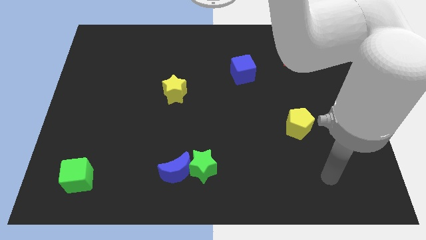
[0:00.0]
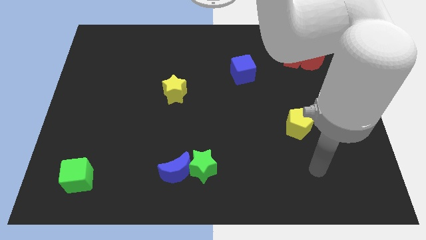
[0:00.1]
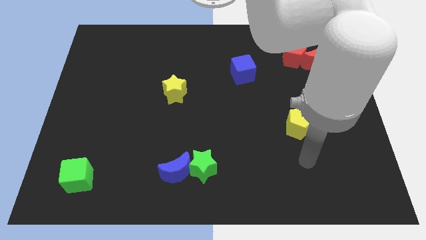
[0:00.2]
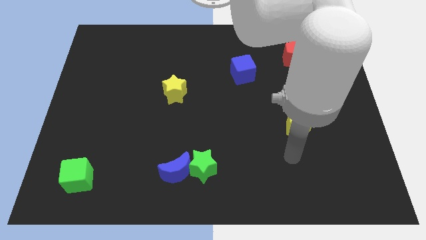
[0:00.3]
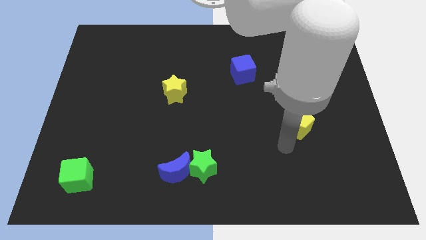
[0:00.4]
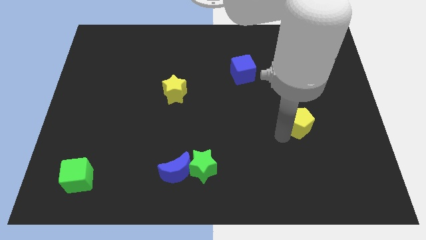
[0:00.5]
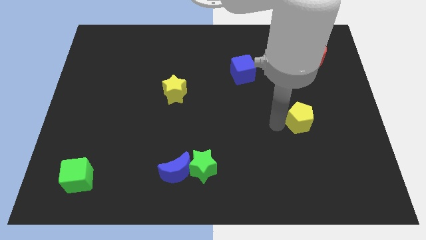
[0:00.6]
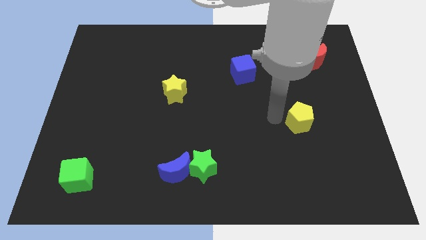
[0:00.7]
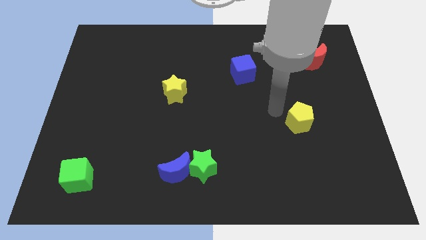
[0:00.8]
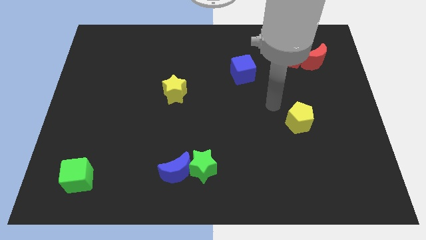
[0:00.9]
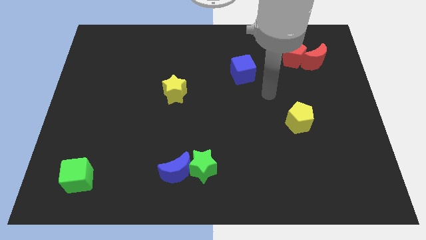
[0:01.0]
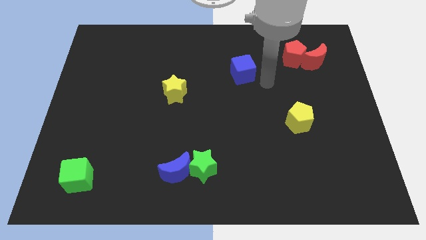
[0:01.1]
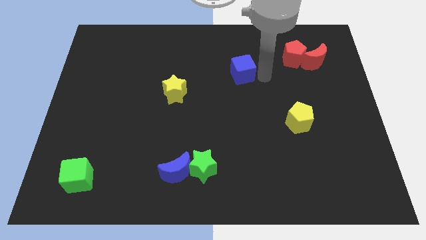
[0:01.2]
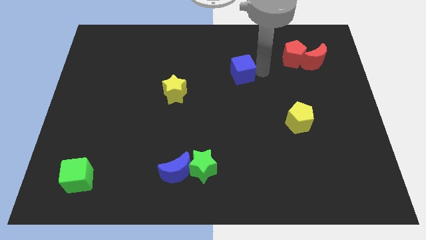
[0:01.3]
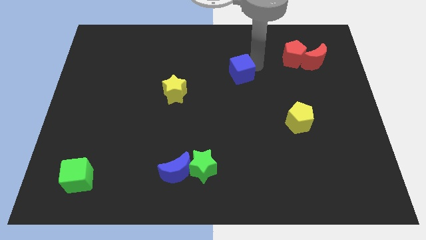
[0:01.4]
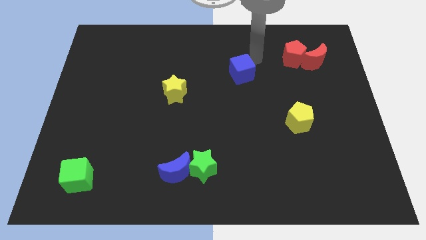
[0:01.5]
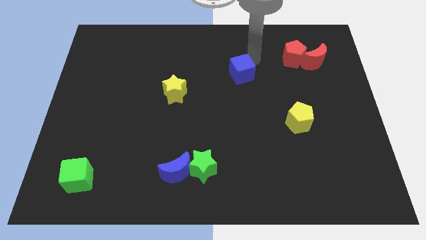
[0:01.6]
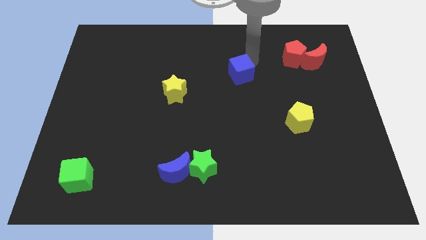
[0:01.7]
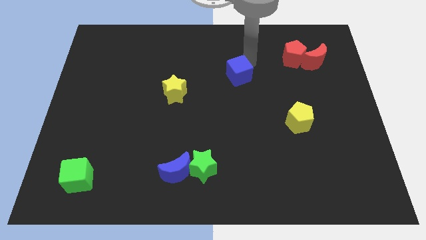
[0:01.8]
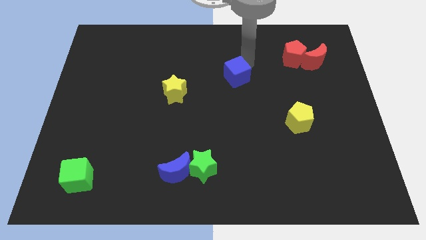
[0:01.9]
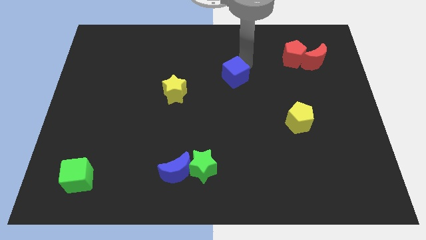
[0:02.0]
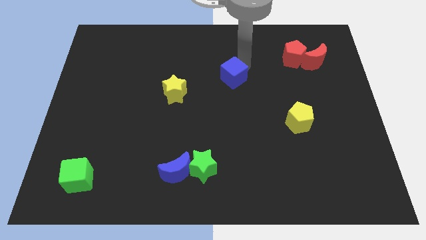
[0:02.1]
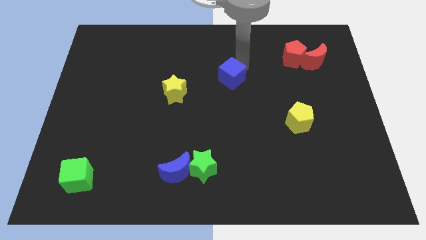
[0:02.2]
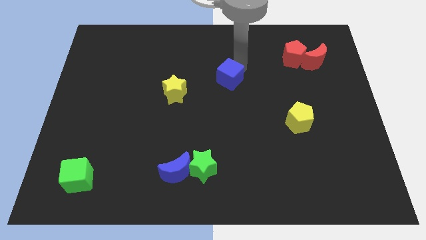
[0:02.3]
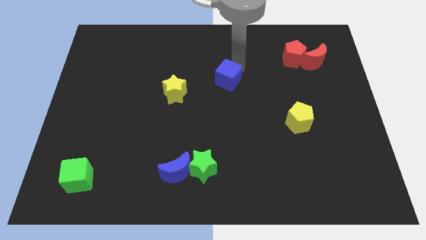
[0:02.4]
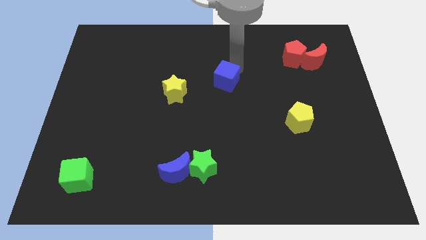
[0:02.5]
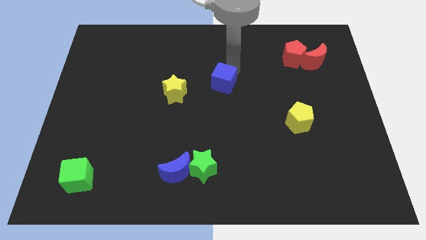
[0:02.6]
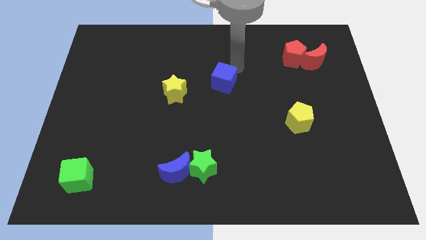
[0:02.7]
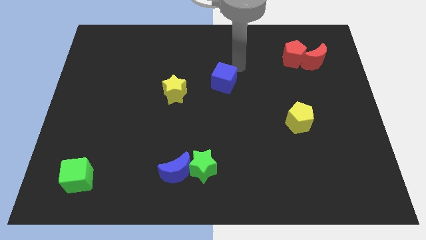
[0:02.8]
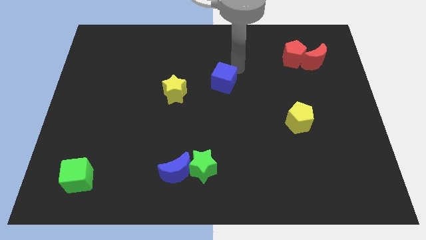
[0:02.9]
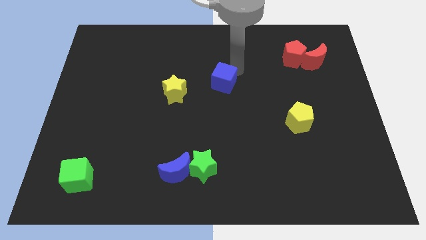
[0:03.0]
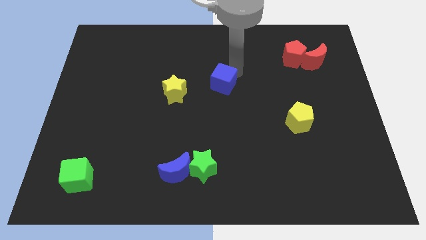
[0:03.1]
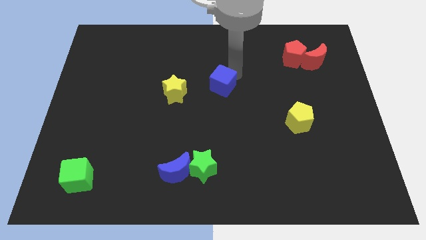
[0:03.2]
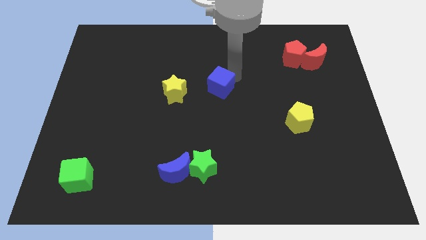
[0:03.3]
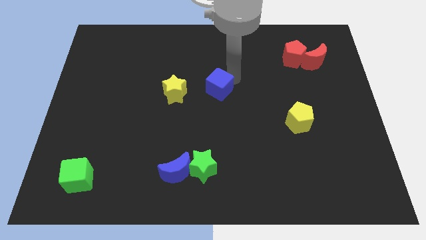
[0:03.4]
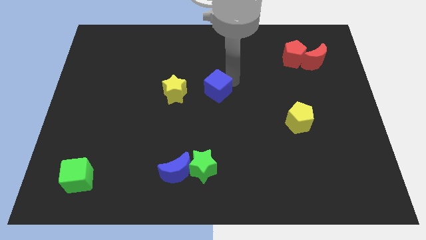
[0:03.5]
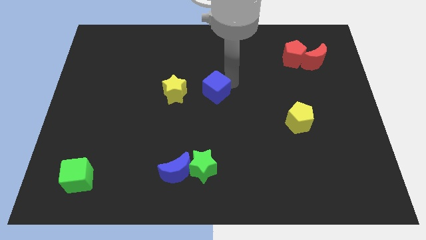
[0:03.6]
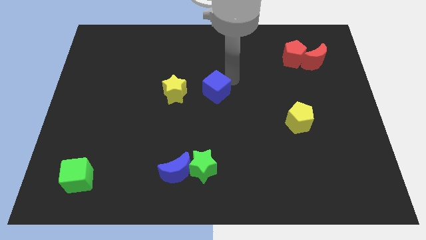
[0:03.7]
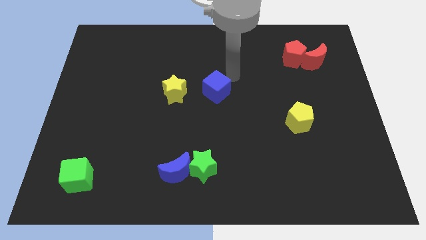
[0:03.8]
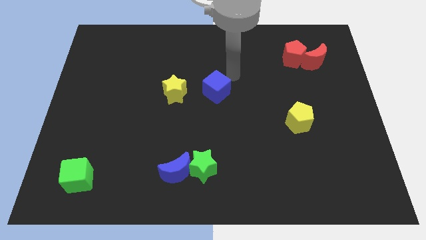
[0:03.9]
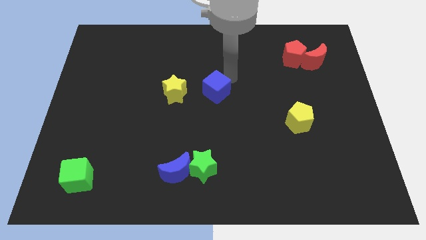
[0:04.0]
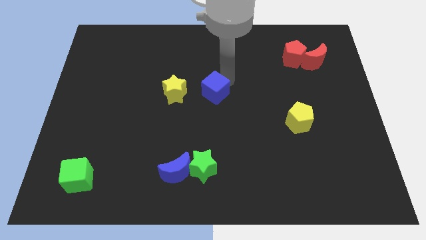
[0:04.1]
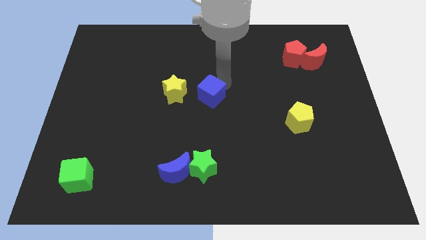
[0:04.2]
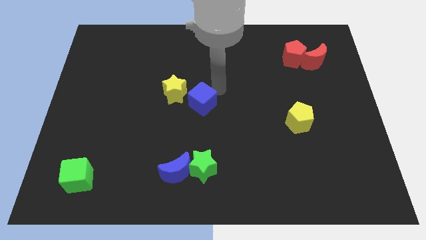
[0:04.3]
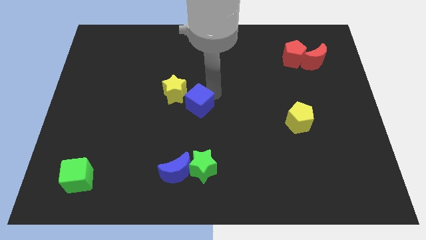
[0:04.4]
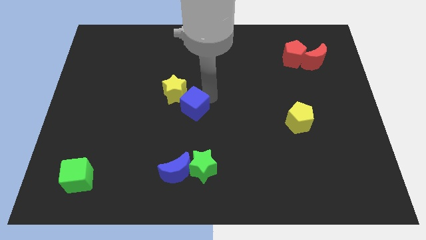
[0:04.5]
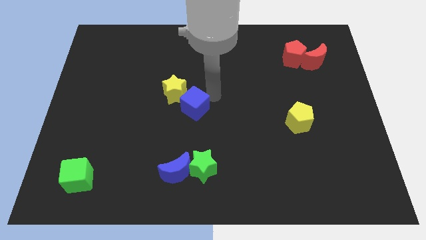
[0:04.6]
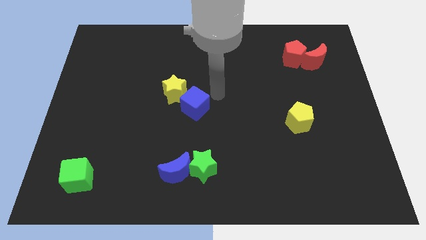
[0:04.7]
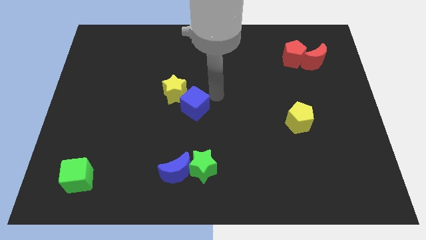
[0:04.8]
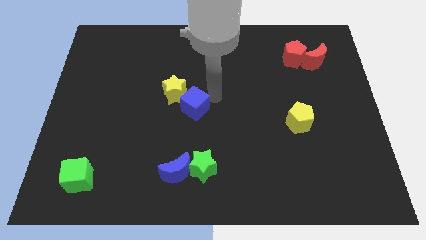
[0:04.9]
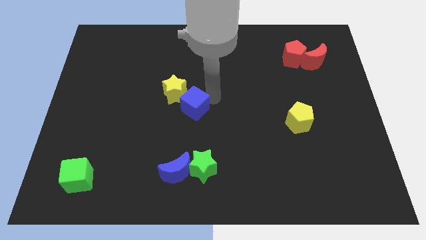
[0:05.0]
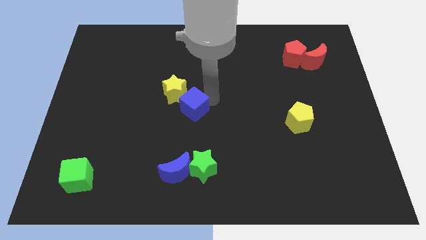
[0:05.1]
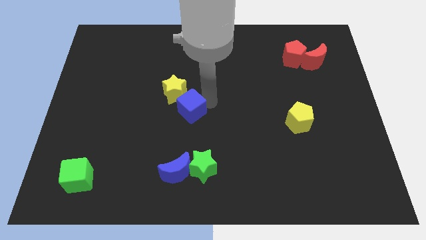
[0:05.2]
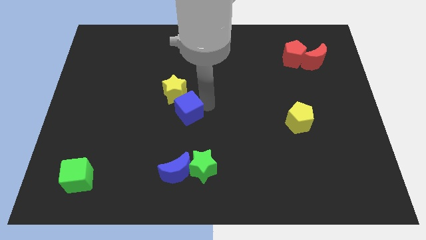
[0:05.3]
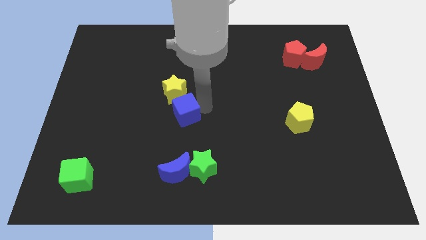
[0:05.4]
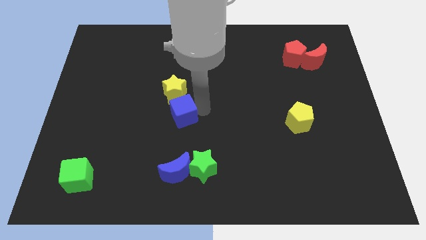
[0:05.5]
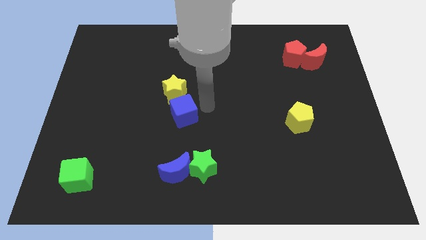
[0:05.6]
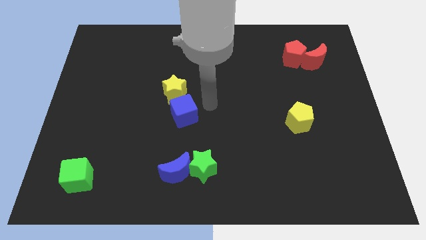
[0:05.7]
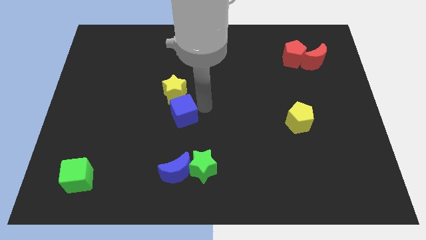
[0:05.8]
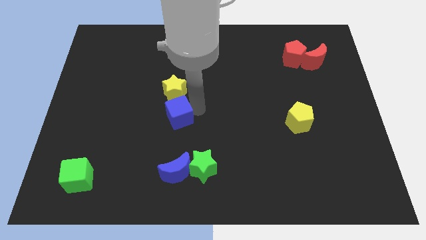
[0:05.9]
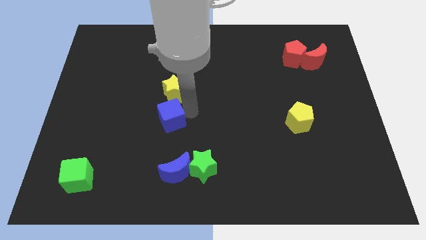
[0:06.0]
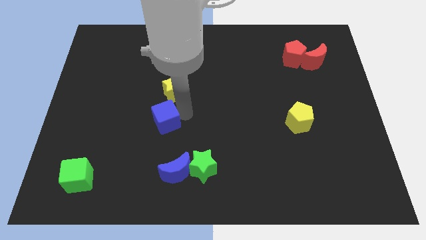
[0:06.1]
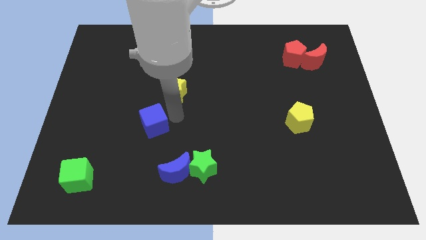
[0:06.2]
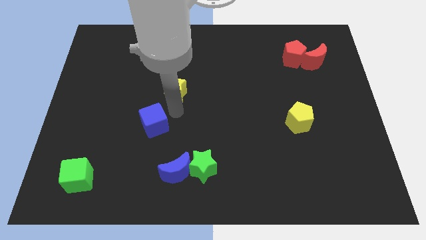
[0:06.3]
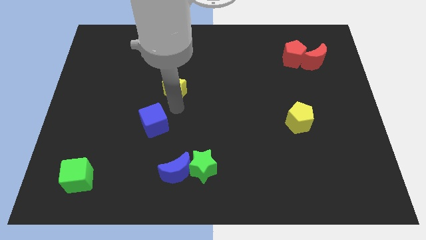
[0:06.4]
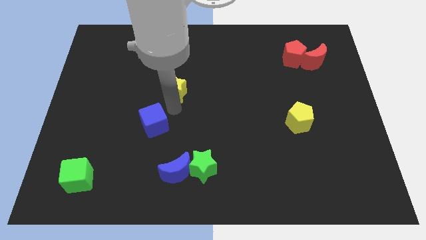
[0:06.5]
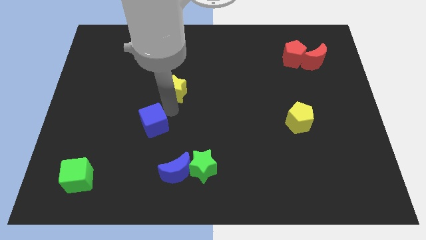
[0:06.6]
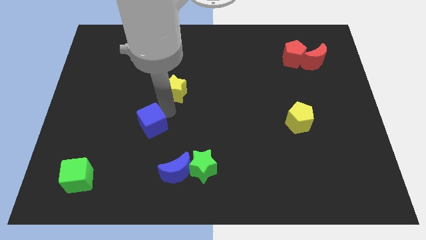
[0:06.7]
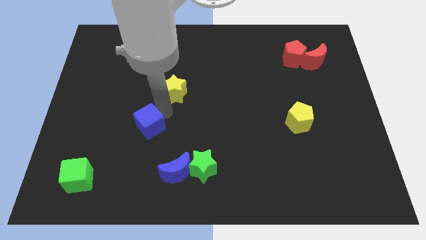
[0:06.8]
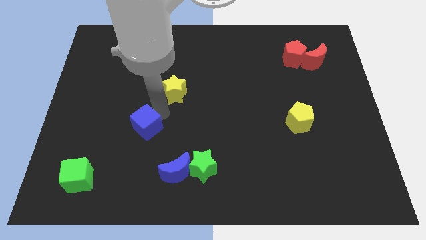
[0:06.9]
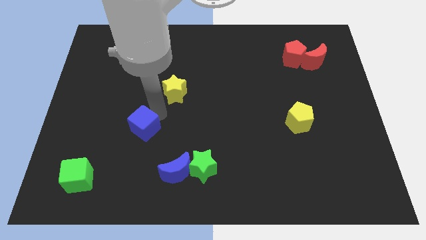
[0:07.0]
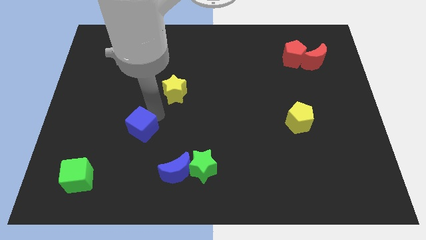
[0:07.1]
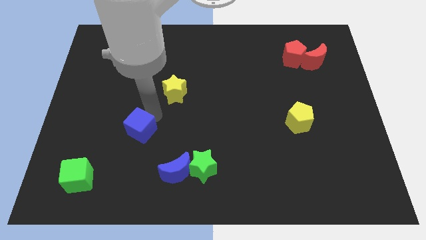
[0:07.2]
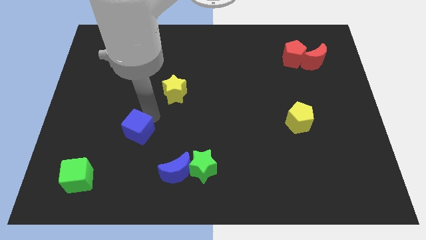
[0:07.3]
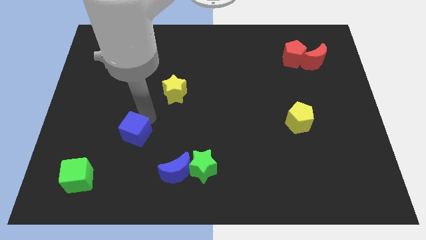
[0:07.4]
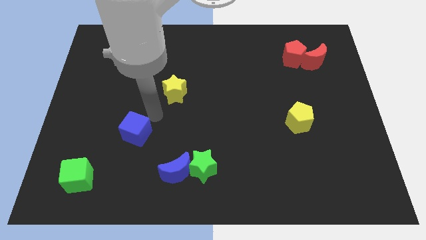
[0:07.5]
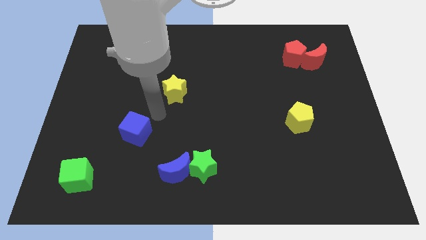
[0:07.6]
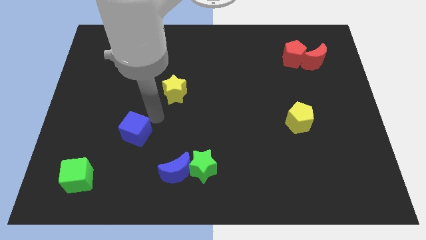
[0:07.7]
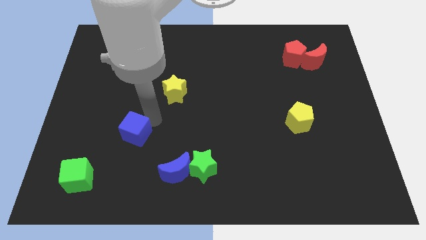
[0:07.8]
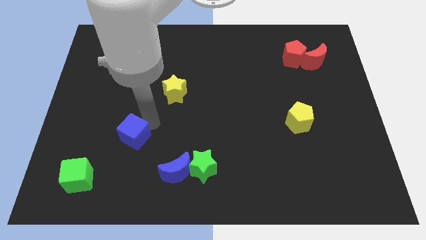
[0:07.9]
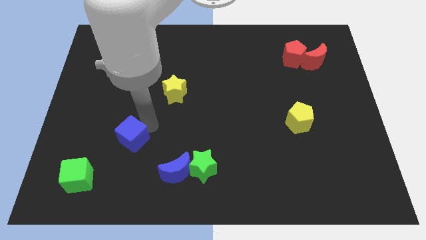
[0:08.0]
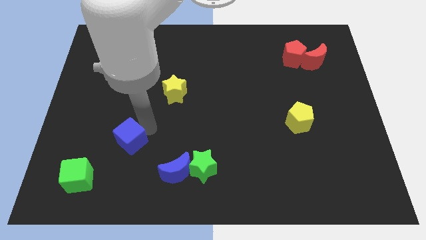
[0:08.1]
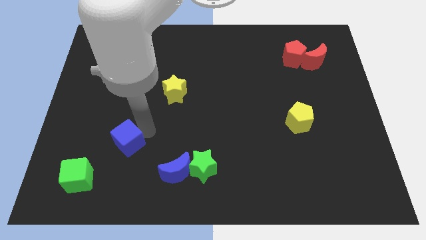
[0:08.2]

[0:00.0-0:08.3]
push the blue cube diagonally up and to the right of the green cube
